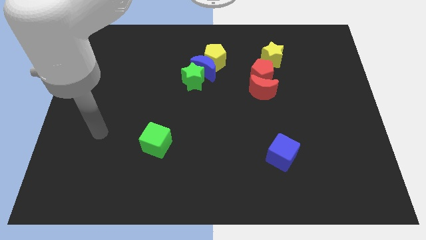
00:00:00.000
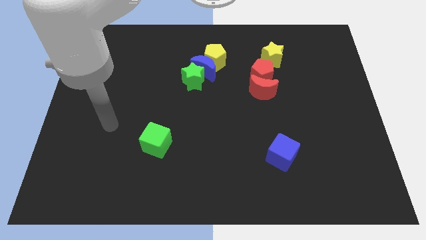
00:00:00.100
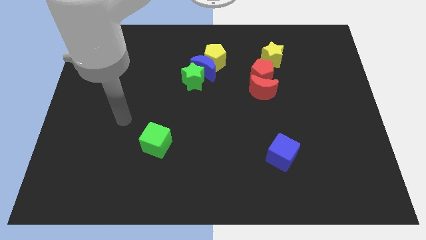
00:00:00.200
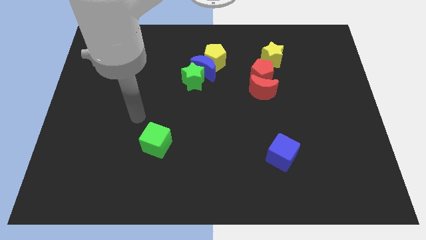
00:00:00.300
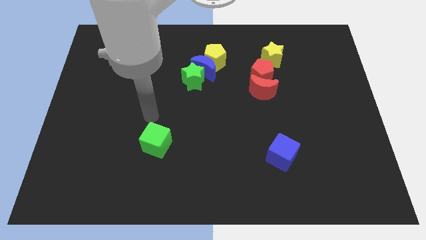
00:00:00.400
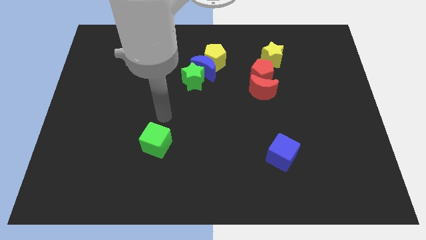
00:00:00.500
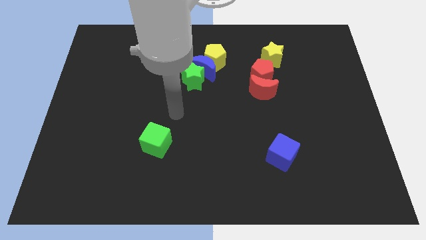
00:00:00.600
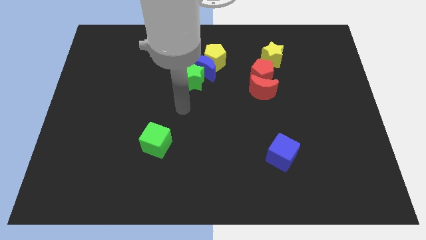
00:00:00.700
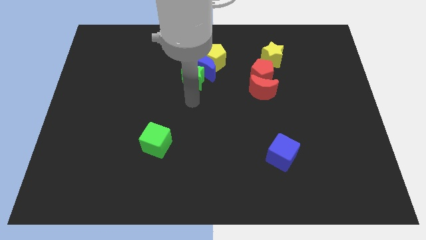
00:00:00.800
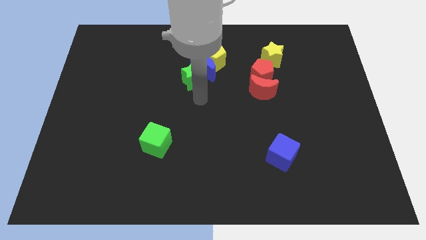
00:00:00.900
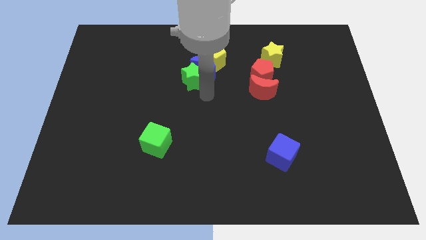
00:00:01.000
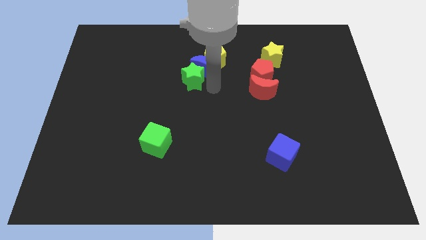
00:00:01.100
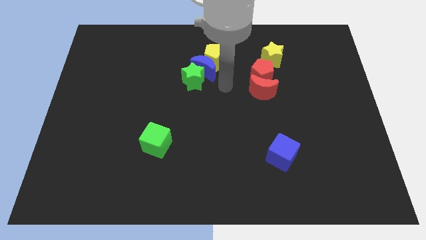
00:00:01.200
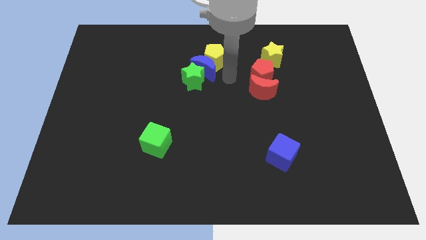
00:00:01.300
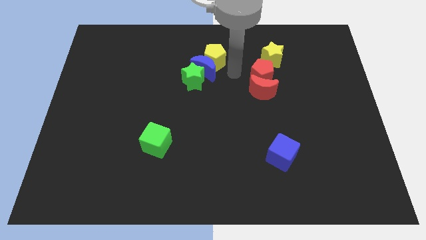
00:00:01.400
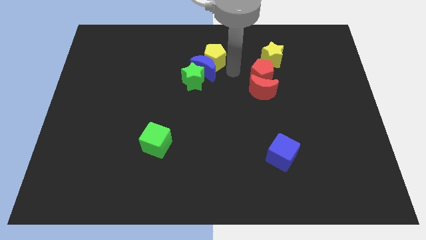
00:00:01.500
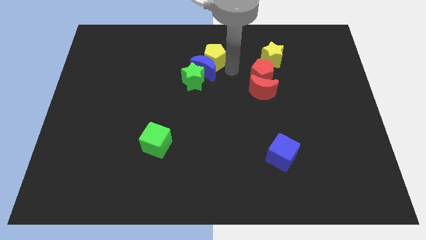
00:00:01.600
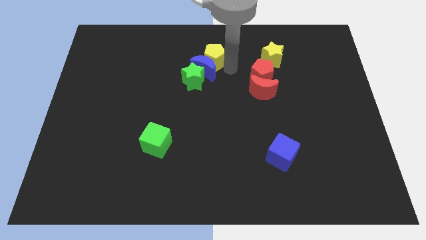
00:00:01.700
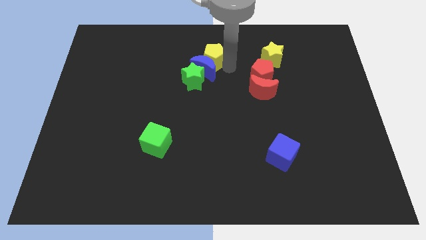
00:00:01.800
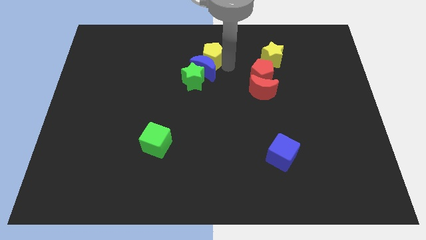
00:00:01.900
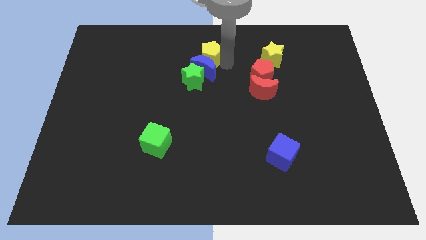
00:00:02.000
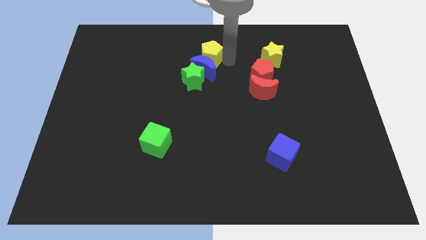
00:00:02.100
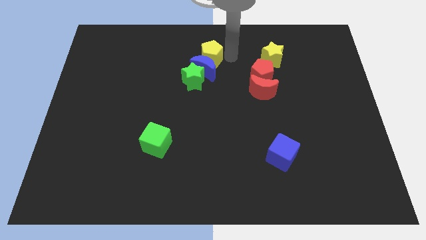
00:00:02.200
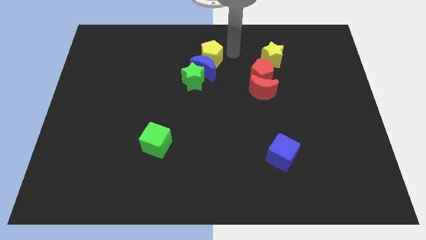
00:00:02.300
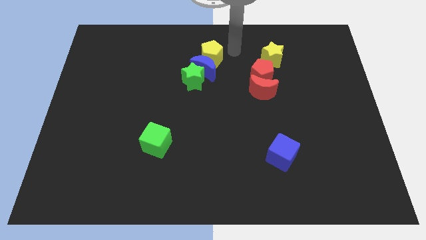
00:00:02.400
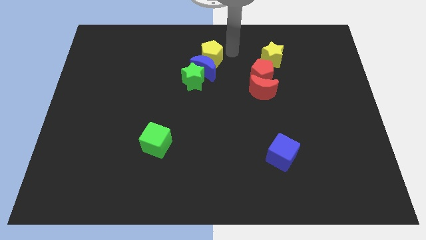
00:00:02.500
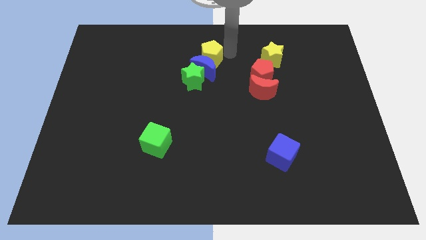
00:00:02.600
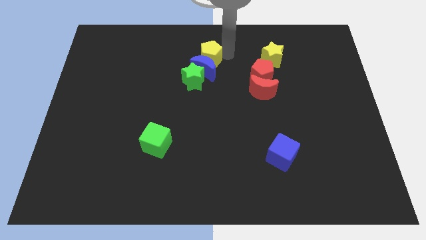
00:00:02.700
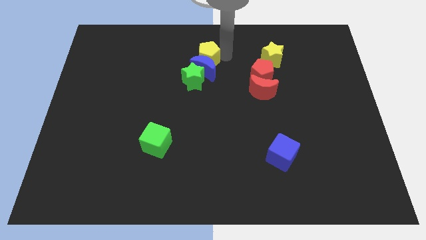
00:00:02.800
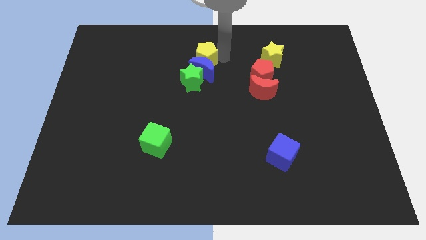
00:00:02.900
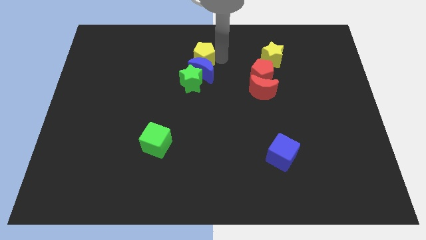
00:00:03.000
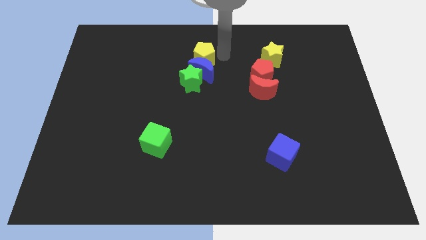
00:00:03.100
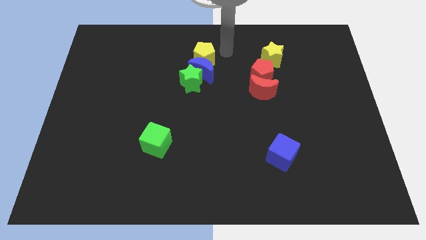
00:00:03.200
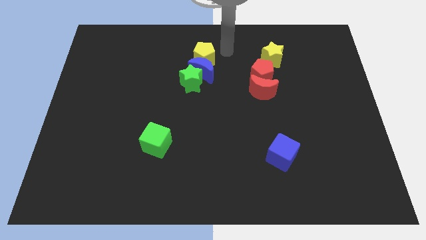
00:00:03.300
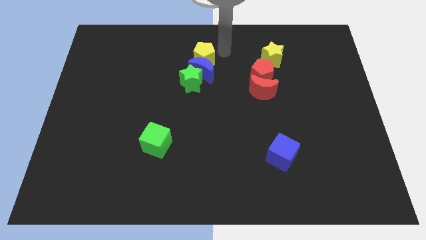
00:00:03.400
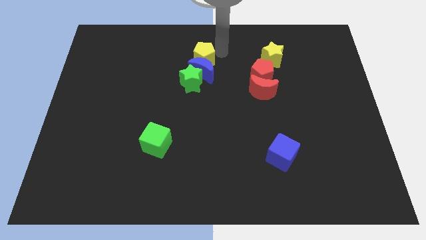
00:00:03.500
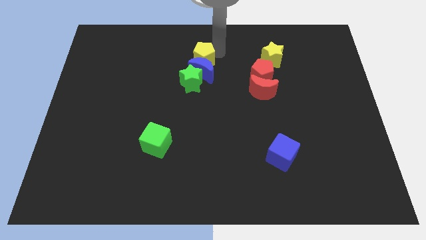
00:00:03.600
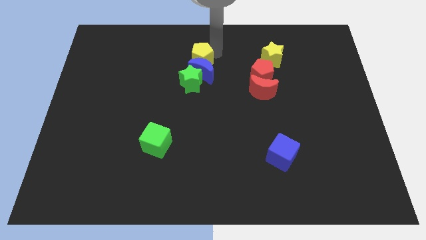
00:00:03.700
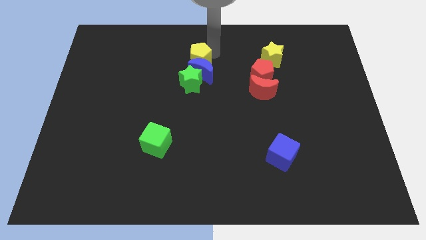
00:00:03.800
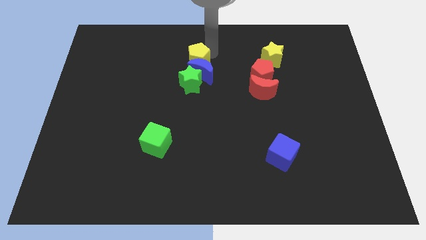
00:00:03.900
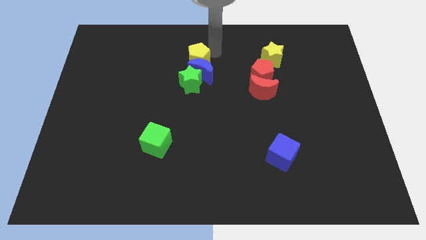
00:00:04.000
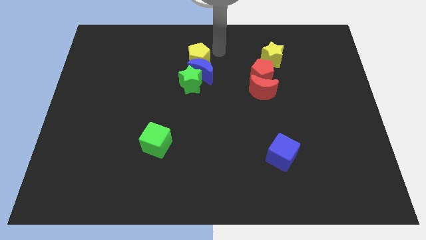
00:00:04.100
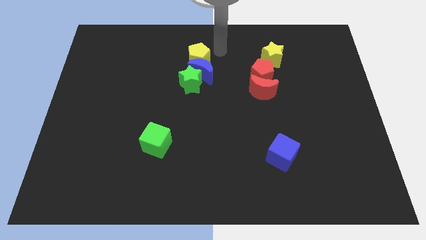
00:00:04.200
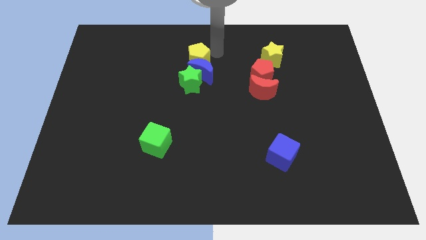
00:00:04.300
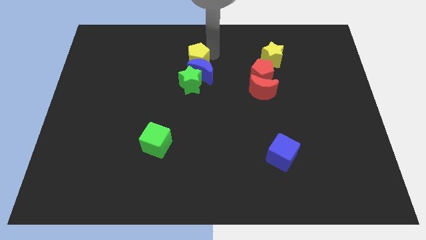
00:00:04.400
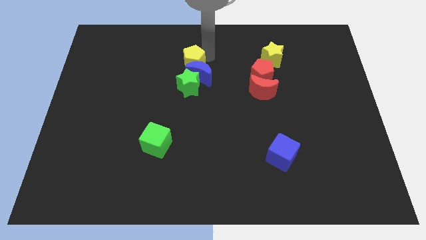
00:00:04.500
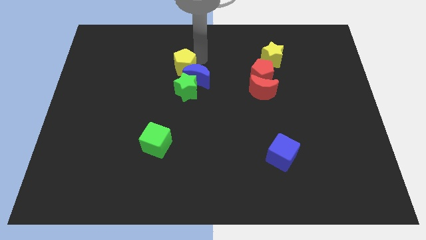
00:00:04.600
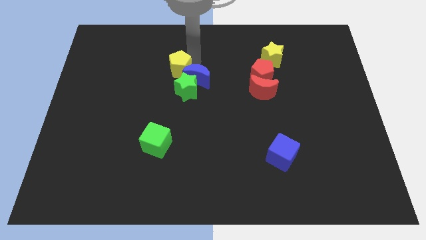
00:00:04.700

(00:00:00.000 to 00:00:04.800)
slide the yellow pentagon slightly down and left

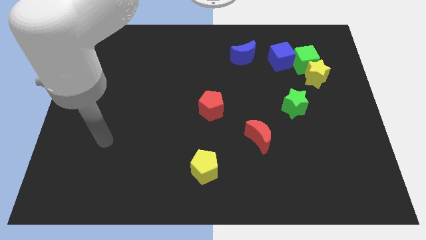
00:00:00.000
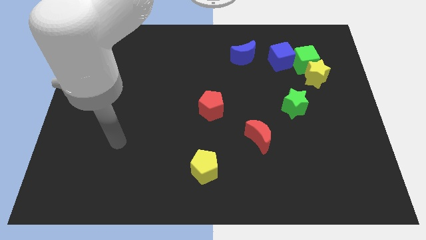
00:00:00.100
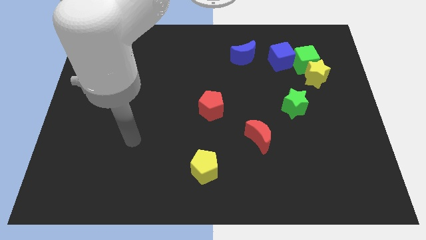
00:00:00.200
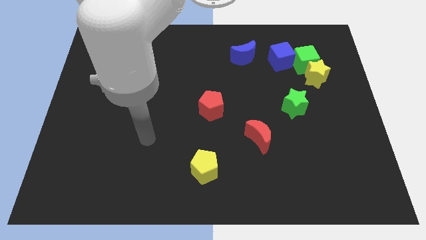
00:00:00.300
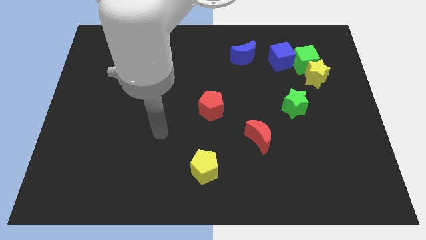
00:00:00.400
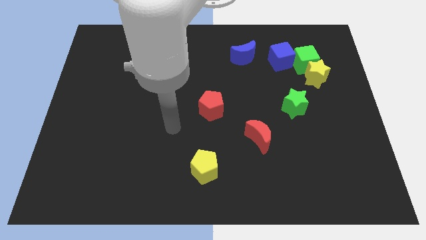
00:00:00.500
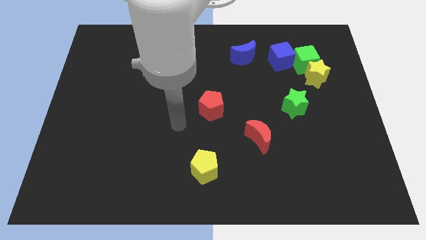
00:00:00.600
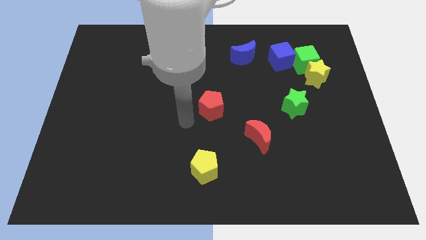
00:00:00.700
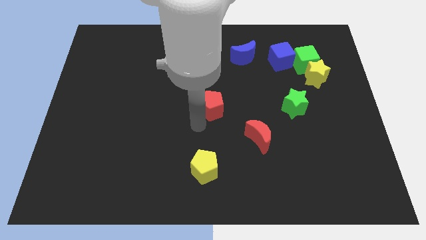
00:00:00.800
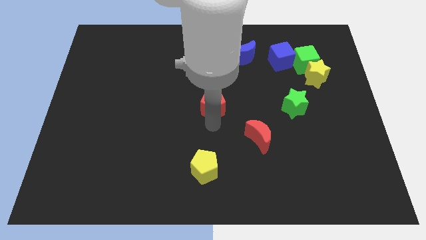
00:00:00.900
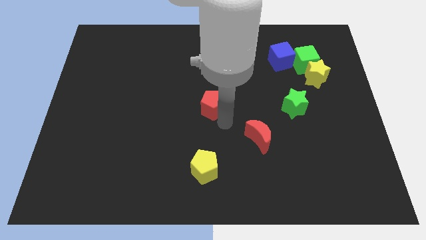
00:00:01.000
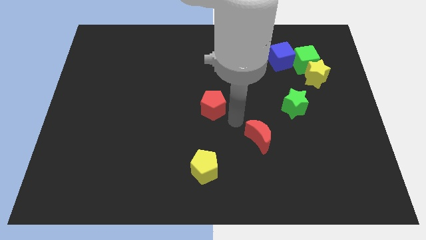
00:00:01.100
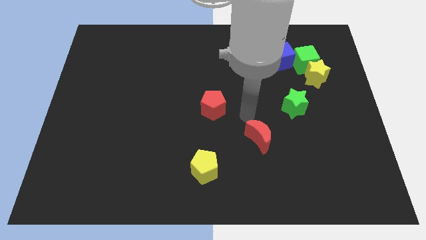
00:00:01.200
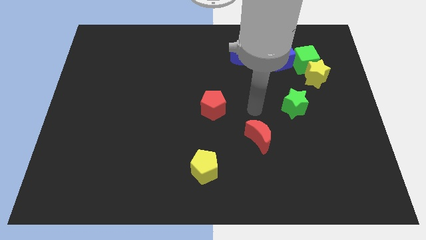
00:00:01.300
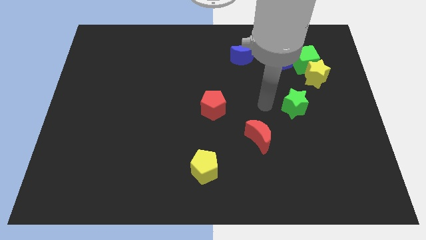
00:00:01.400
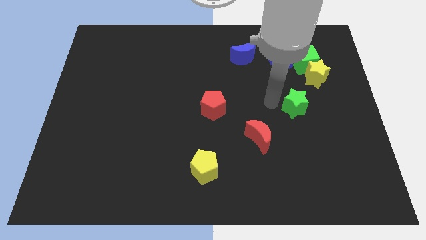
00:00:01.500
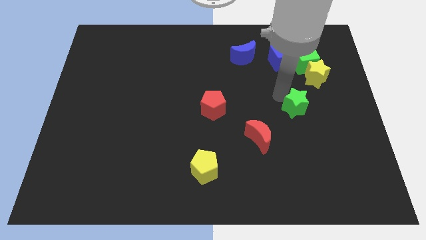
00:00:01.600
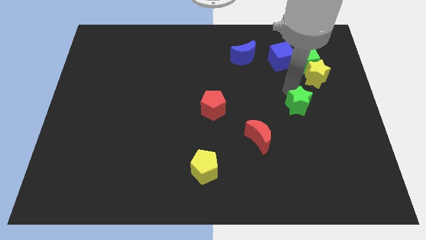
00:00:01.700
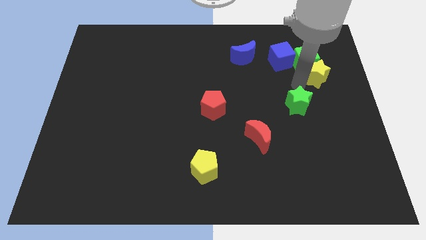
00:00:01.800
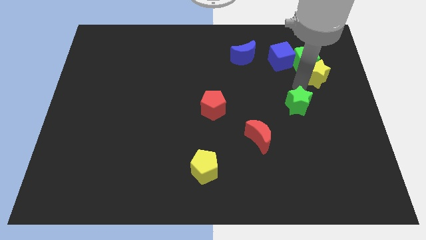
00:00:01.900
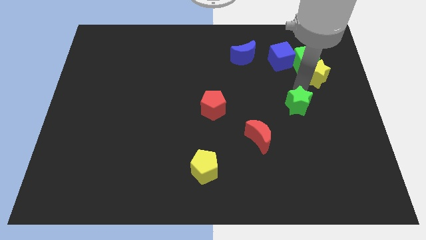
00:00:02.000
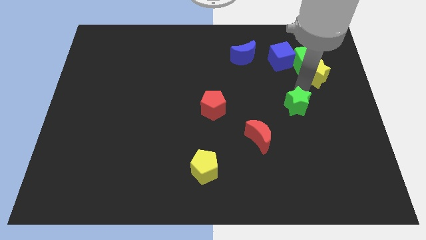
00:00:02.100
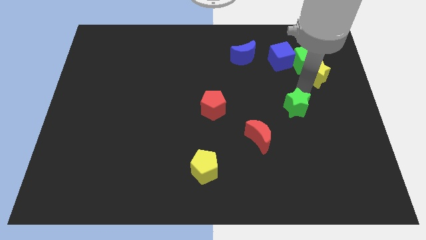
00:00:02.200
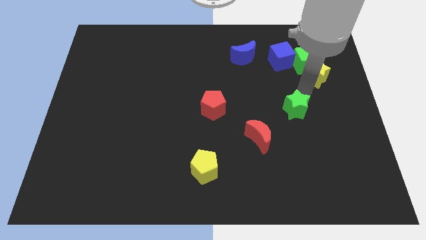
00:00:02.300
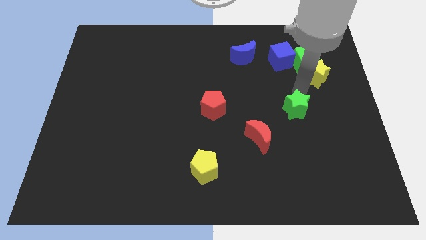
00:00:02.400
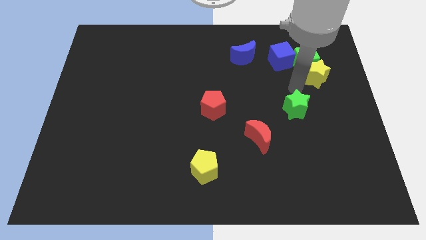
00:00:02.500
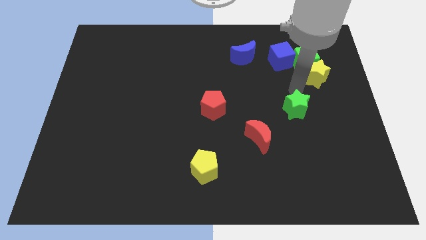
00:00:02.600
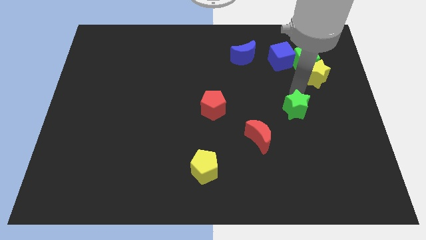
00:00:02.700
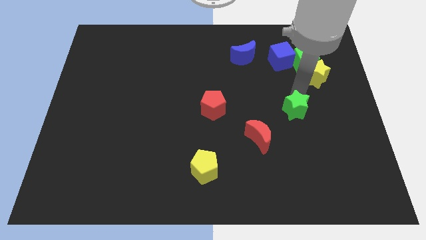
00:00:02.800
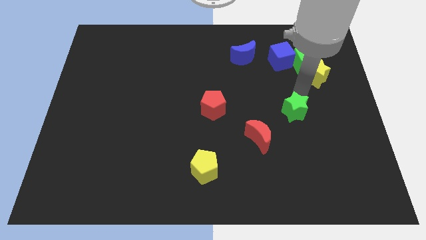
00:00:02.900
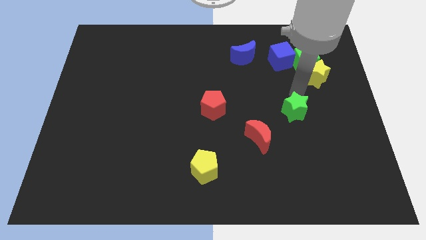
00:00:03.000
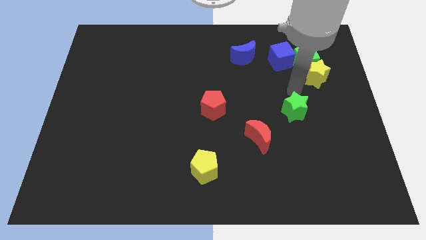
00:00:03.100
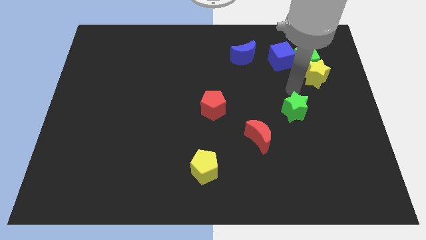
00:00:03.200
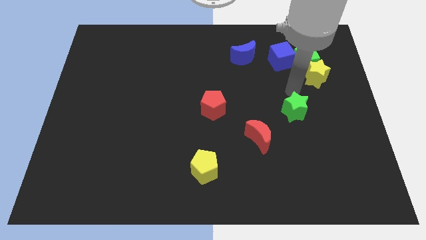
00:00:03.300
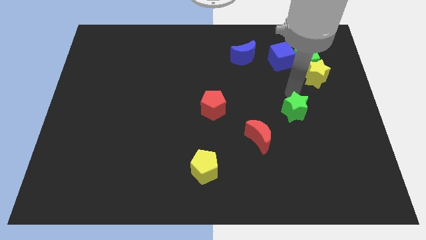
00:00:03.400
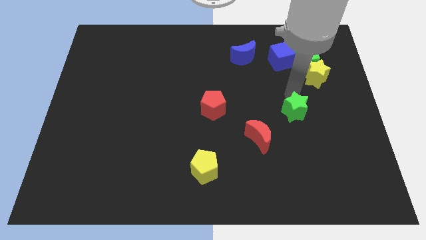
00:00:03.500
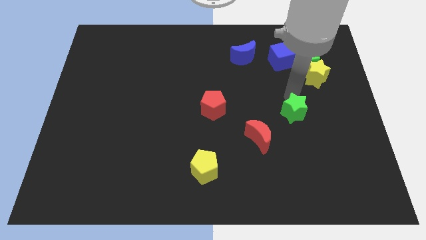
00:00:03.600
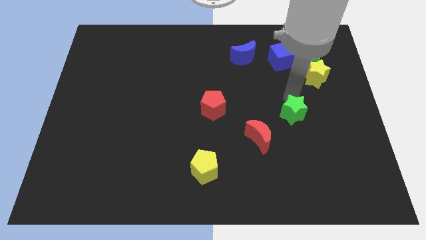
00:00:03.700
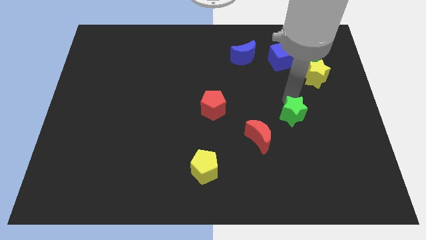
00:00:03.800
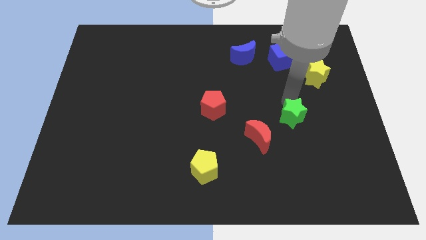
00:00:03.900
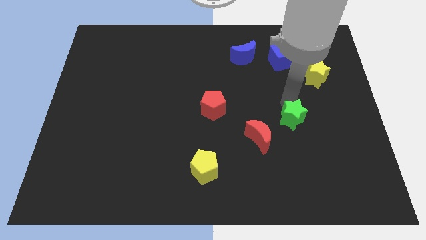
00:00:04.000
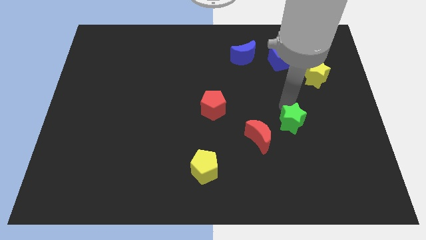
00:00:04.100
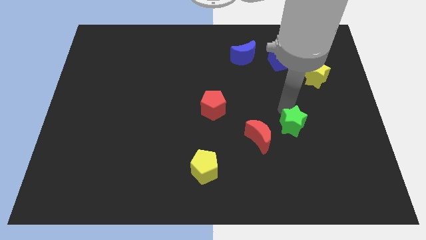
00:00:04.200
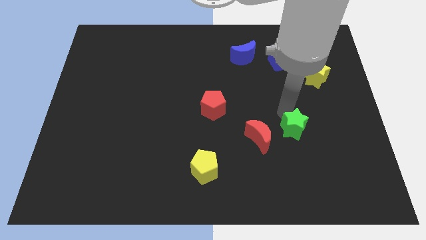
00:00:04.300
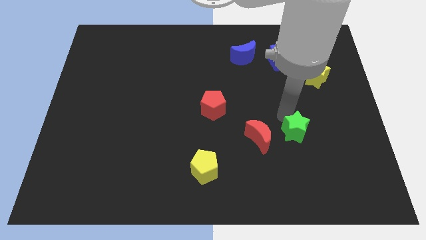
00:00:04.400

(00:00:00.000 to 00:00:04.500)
slide the green star down a little
